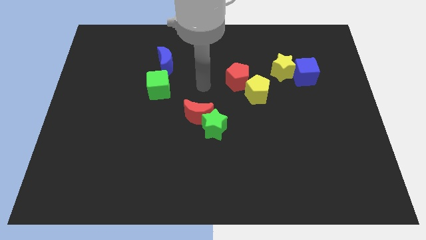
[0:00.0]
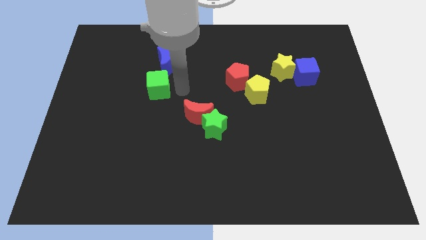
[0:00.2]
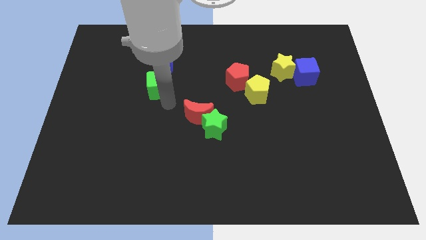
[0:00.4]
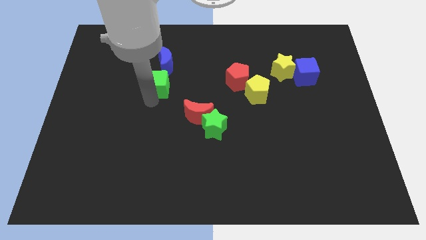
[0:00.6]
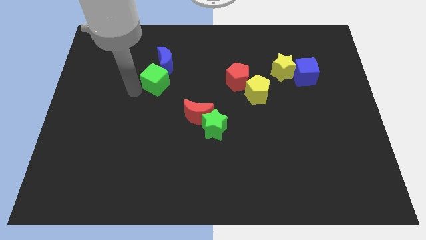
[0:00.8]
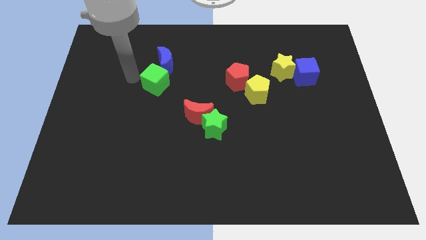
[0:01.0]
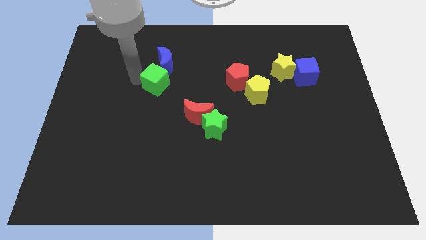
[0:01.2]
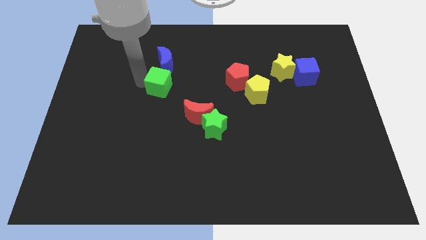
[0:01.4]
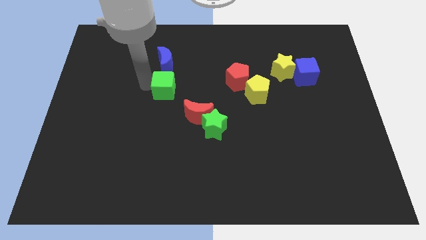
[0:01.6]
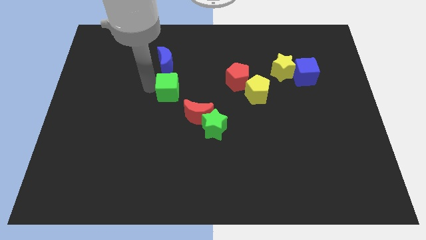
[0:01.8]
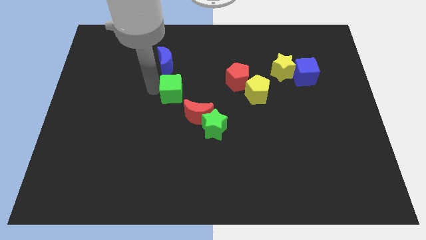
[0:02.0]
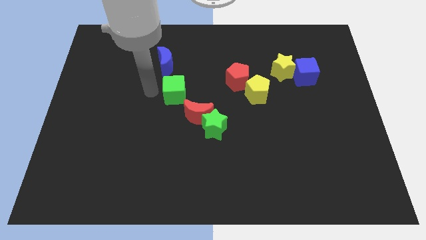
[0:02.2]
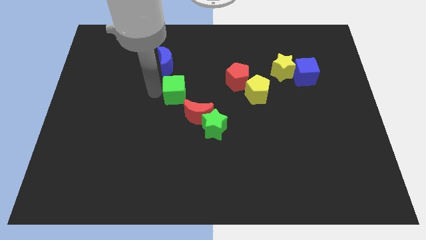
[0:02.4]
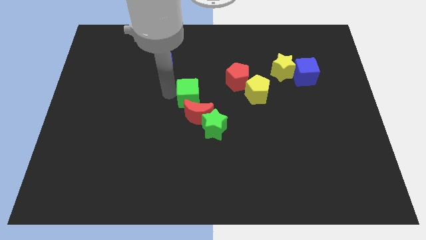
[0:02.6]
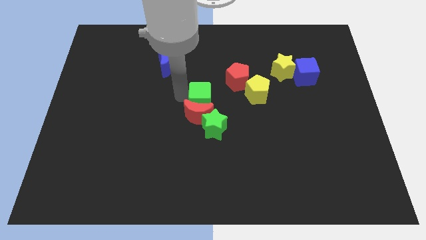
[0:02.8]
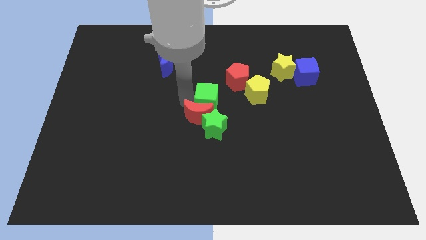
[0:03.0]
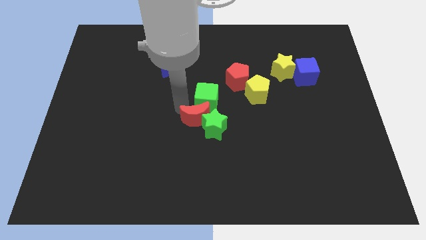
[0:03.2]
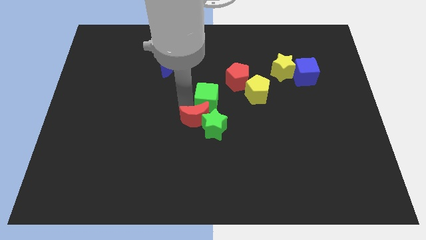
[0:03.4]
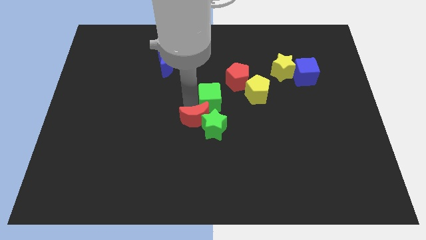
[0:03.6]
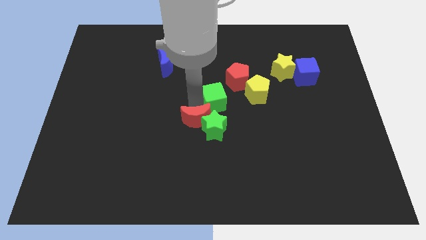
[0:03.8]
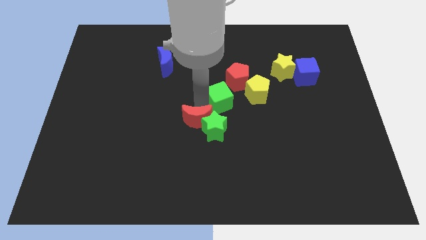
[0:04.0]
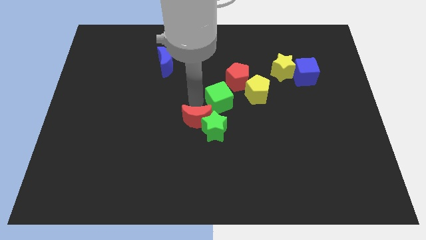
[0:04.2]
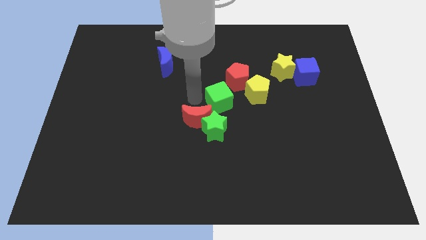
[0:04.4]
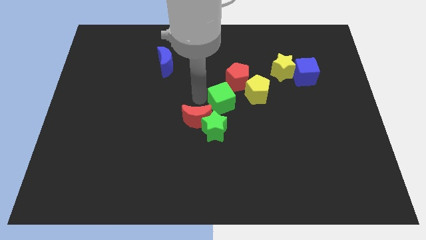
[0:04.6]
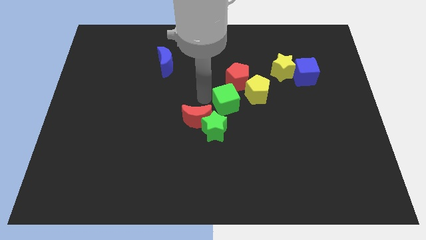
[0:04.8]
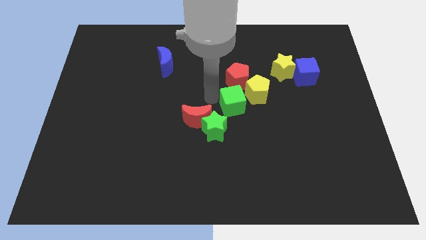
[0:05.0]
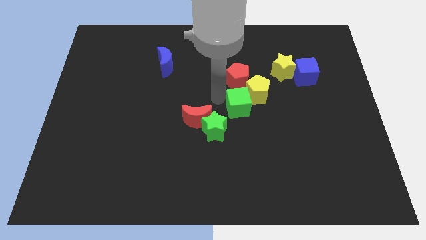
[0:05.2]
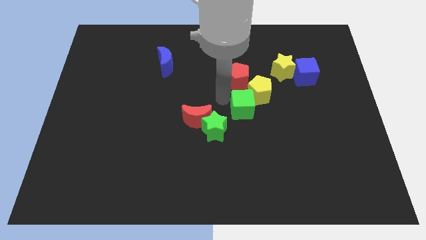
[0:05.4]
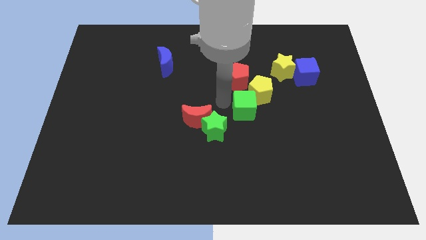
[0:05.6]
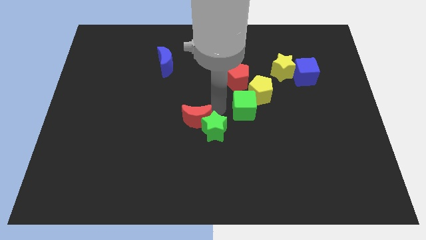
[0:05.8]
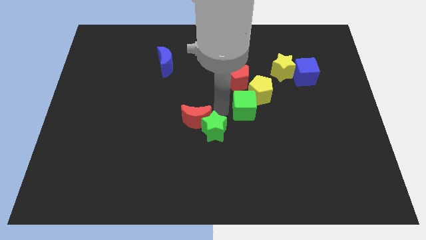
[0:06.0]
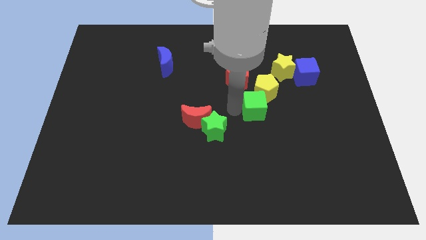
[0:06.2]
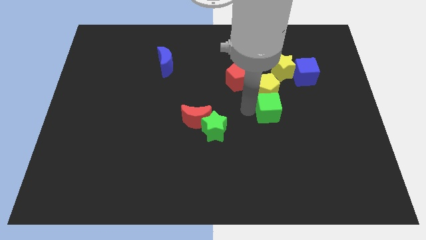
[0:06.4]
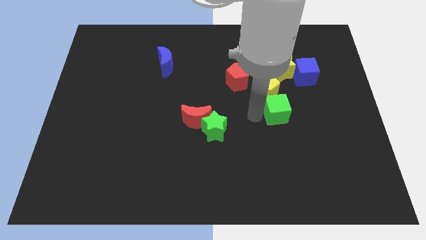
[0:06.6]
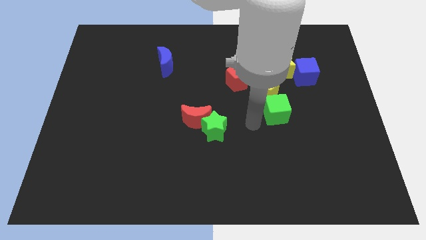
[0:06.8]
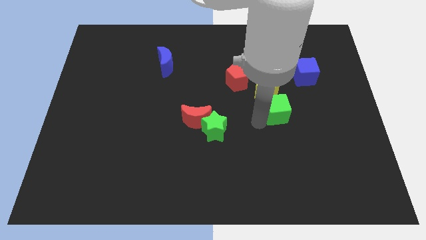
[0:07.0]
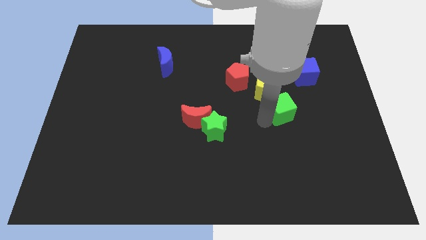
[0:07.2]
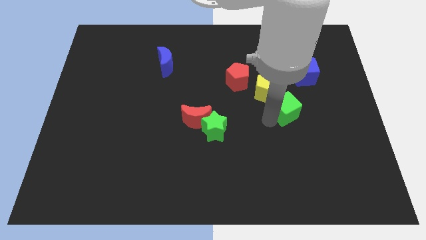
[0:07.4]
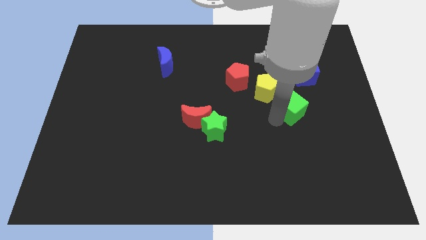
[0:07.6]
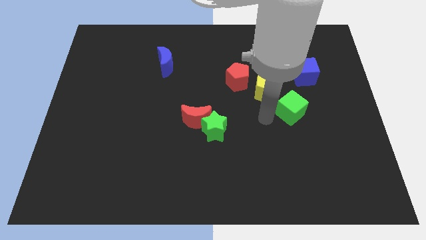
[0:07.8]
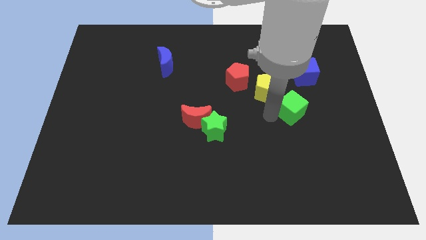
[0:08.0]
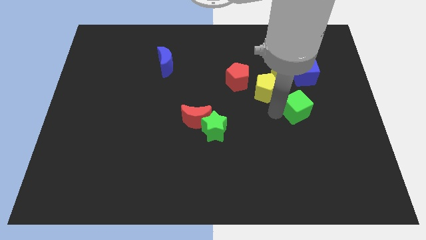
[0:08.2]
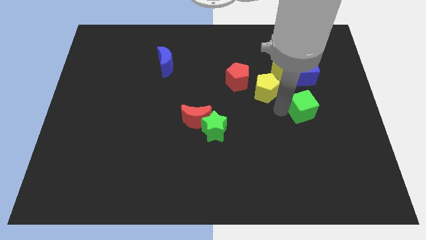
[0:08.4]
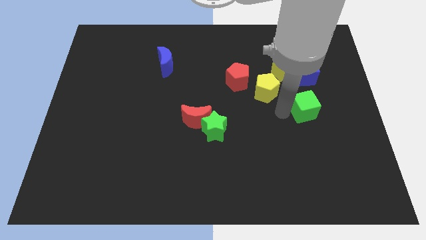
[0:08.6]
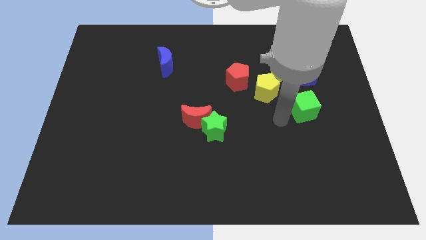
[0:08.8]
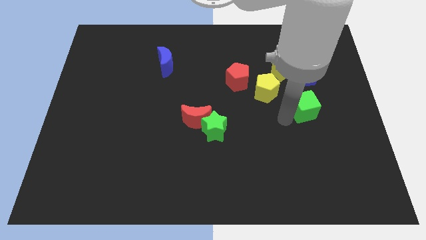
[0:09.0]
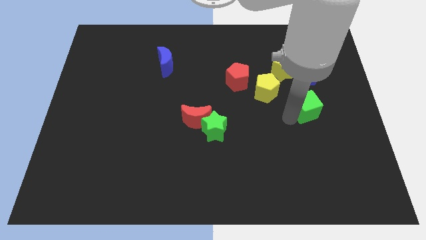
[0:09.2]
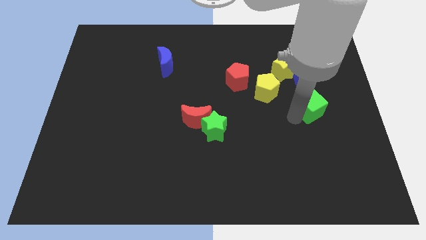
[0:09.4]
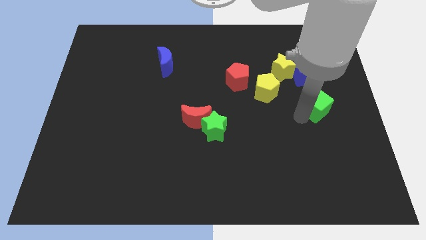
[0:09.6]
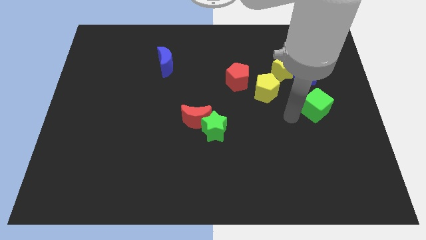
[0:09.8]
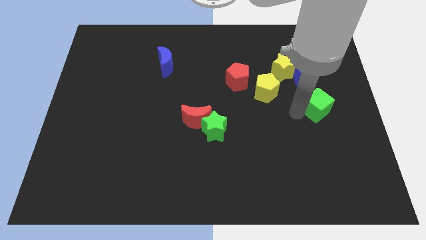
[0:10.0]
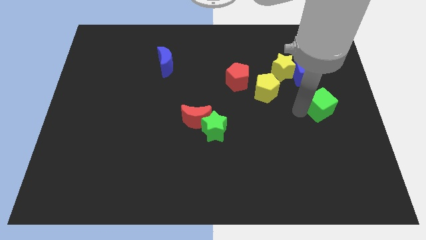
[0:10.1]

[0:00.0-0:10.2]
slide the green cube to the right side of the board

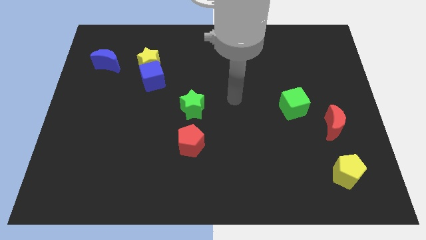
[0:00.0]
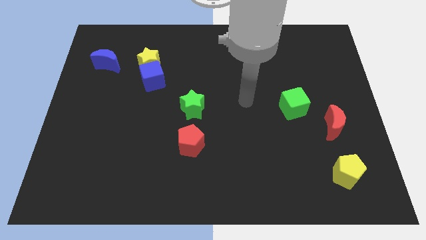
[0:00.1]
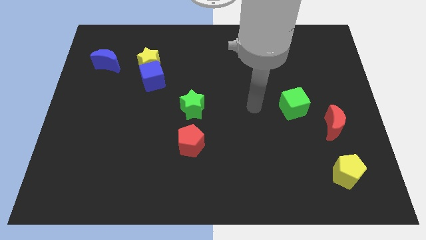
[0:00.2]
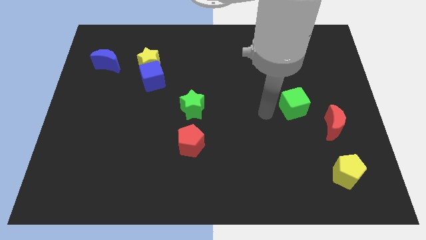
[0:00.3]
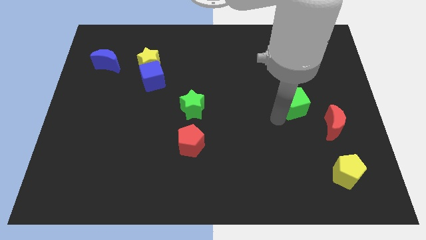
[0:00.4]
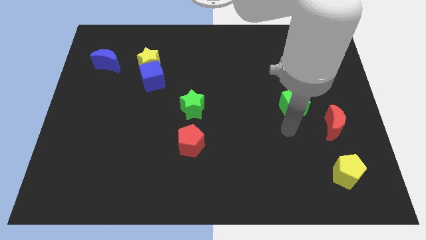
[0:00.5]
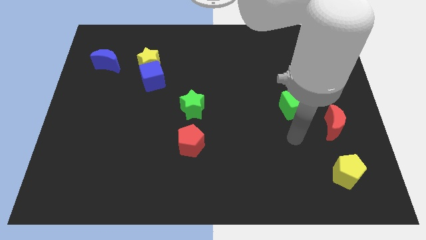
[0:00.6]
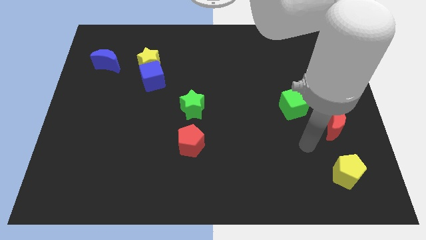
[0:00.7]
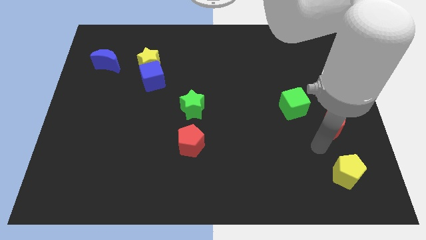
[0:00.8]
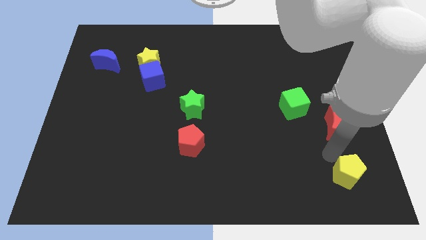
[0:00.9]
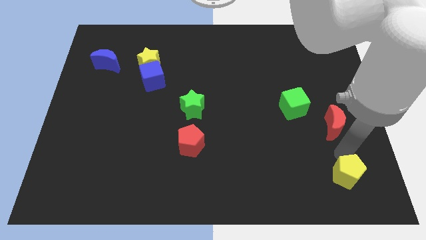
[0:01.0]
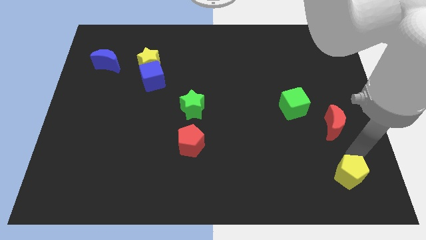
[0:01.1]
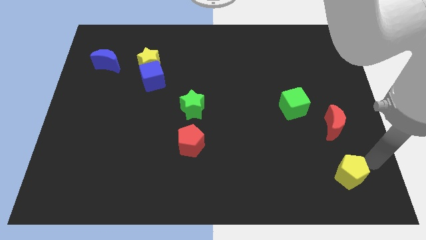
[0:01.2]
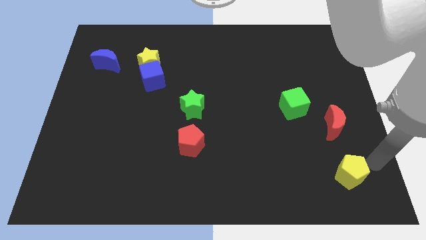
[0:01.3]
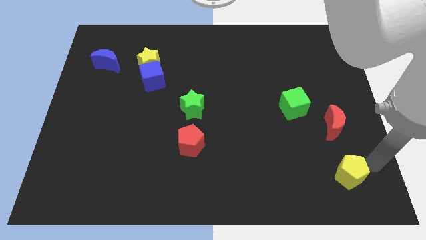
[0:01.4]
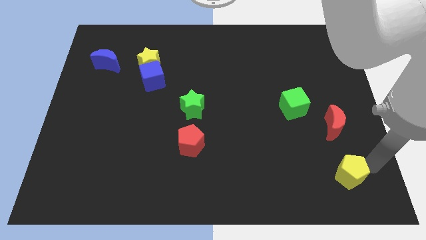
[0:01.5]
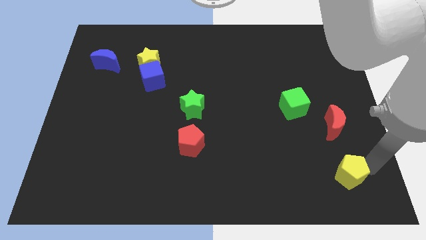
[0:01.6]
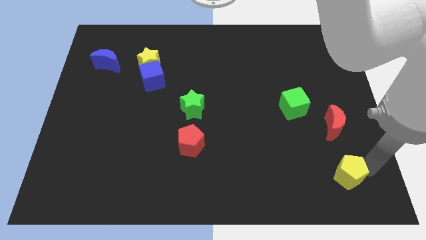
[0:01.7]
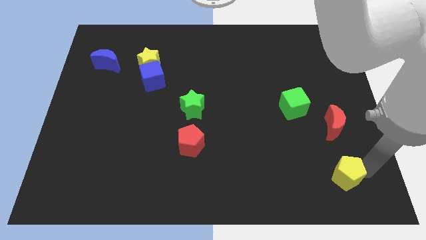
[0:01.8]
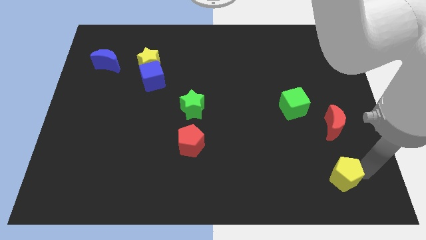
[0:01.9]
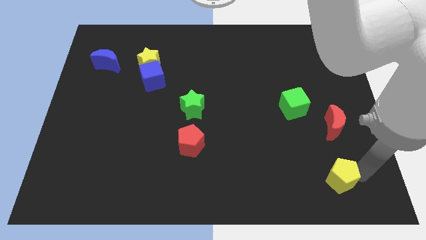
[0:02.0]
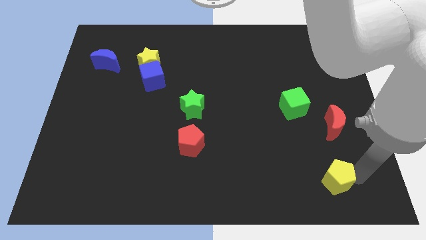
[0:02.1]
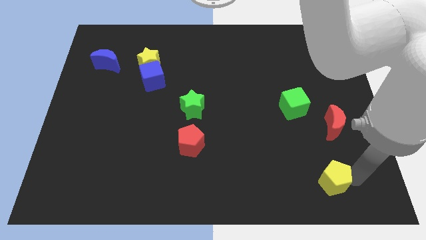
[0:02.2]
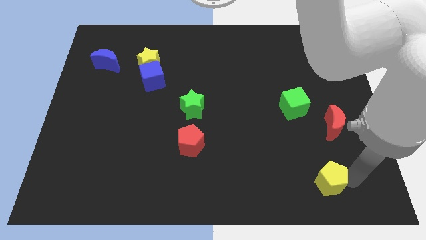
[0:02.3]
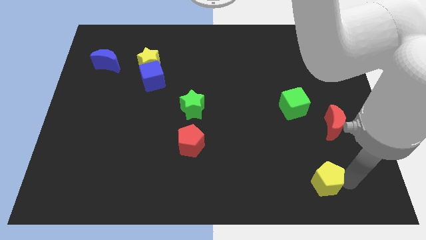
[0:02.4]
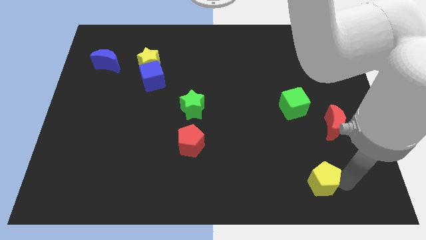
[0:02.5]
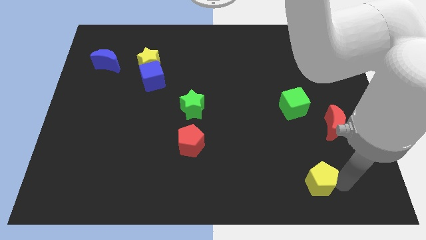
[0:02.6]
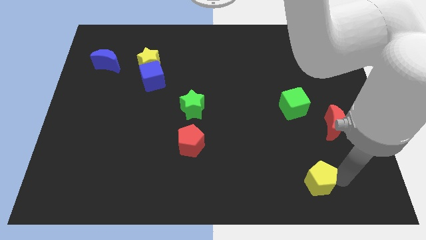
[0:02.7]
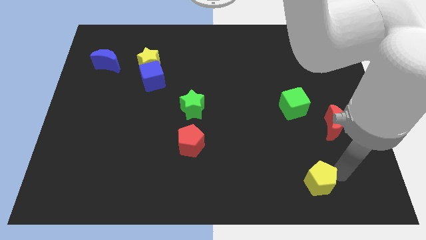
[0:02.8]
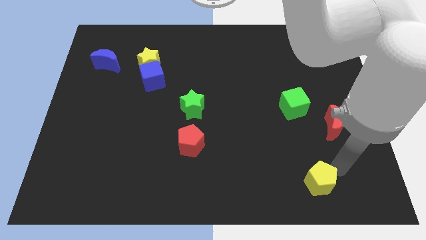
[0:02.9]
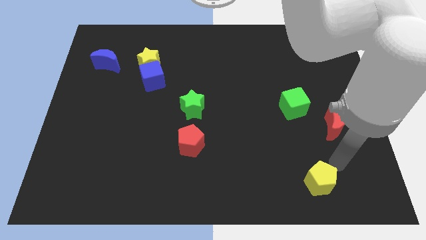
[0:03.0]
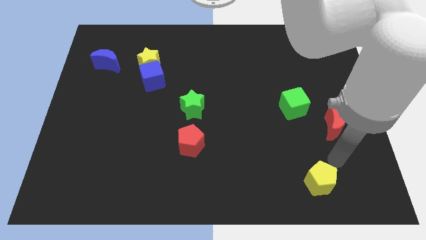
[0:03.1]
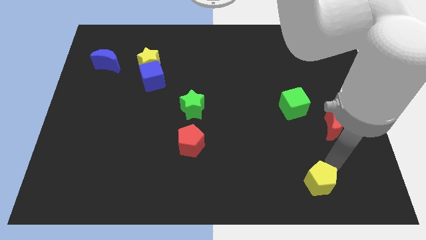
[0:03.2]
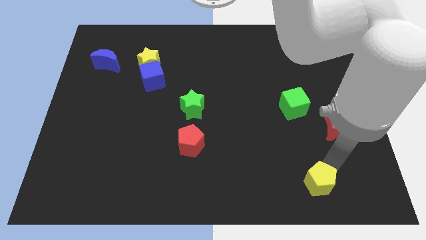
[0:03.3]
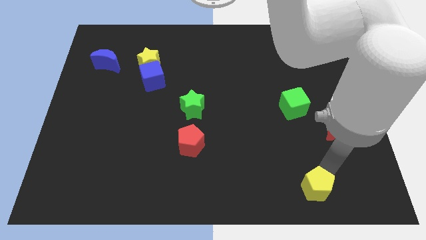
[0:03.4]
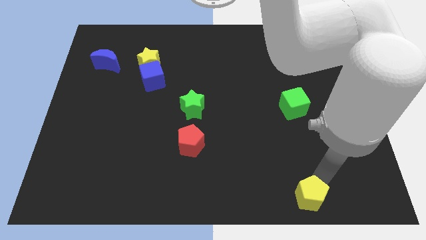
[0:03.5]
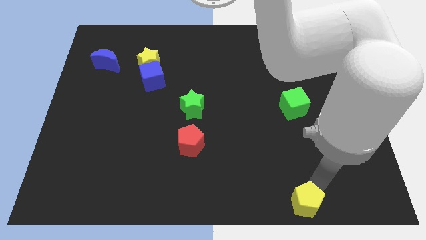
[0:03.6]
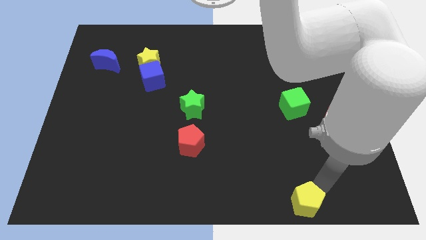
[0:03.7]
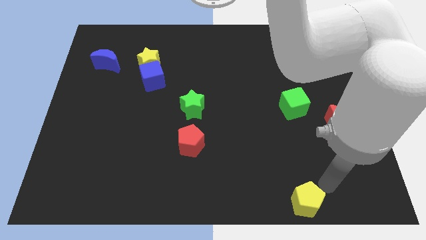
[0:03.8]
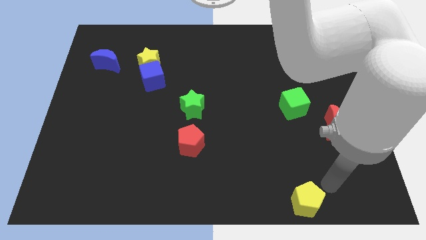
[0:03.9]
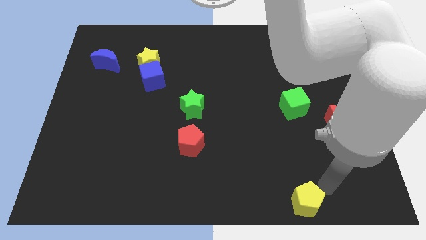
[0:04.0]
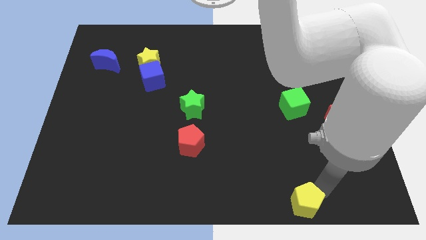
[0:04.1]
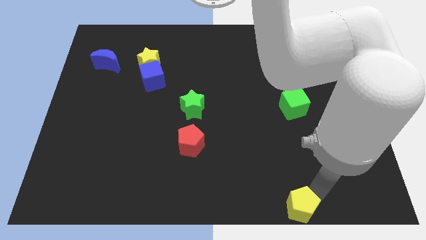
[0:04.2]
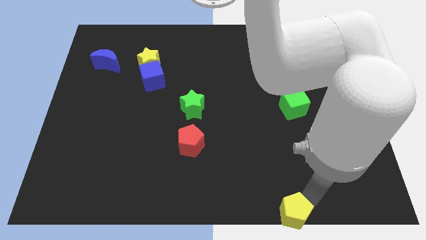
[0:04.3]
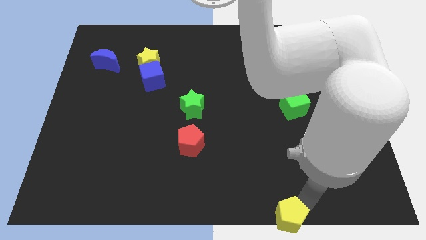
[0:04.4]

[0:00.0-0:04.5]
slide the yellow pentagon to the bottom
